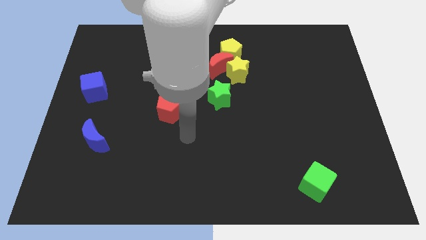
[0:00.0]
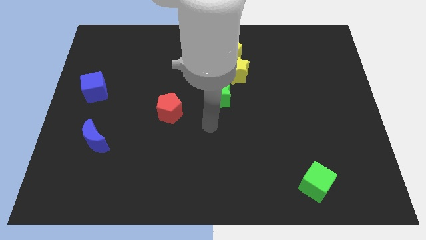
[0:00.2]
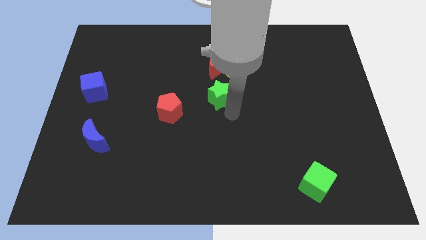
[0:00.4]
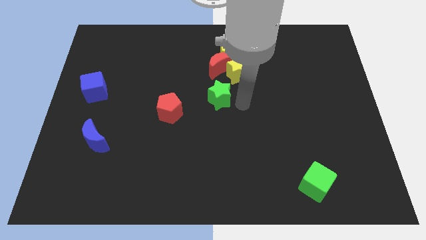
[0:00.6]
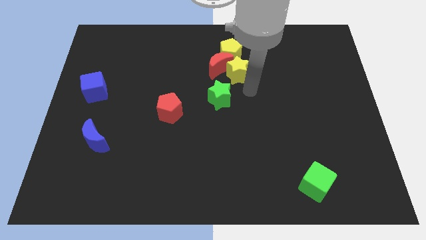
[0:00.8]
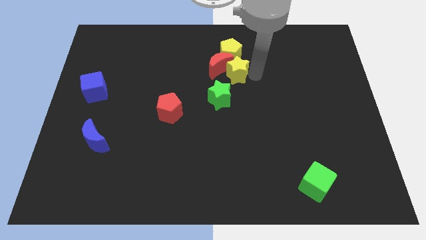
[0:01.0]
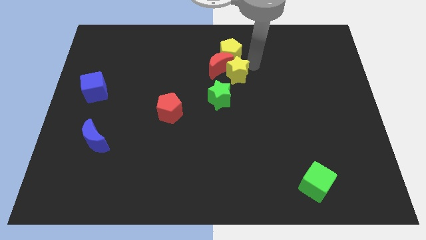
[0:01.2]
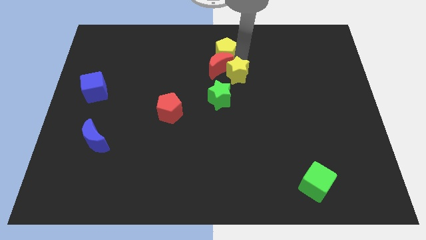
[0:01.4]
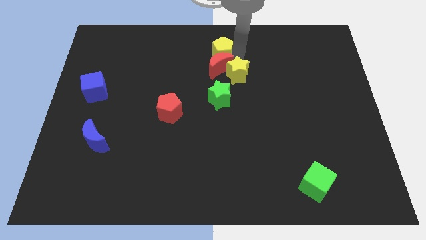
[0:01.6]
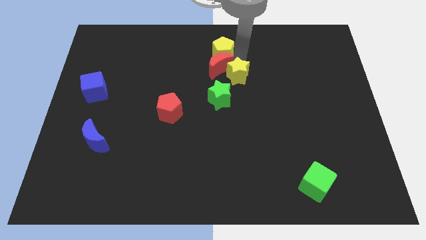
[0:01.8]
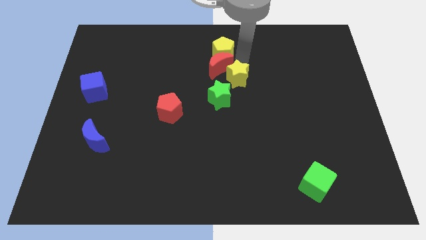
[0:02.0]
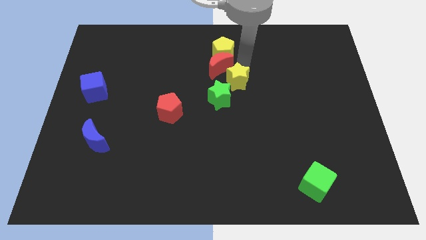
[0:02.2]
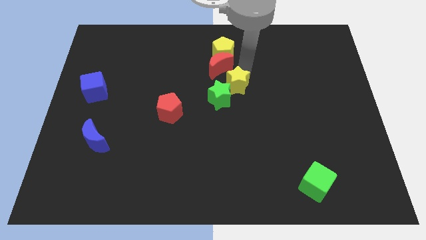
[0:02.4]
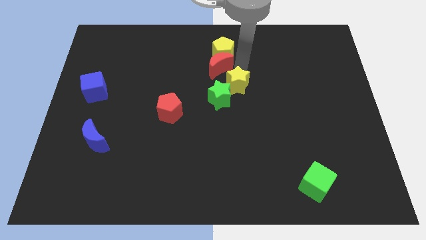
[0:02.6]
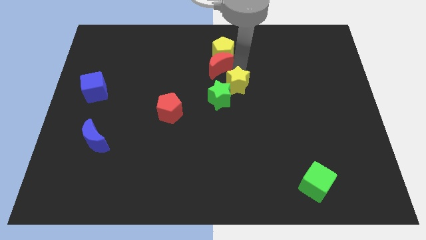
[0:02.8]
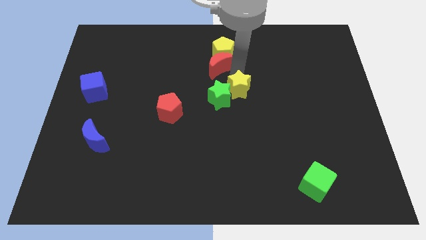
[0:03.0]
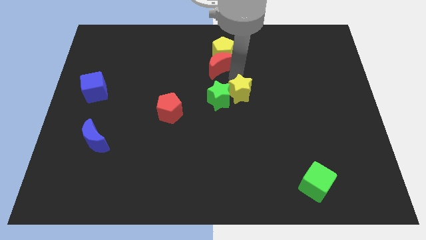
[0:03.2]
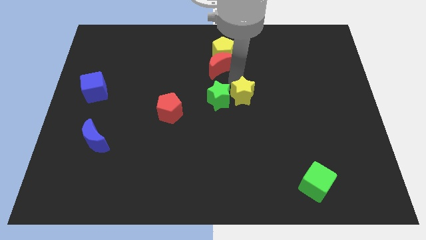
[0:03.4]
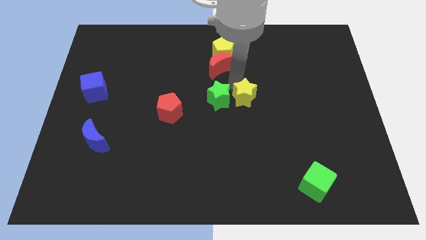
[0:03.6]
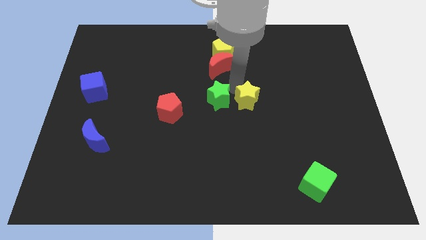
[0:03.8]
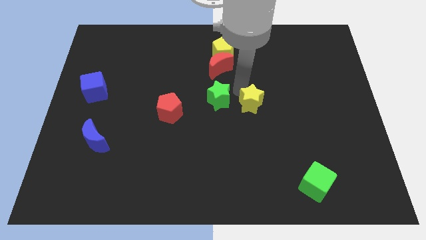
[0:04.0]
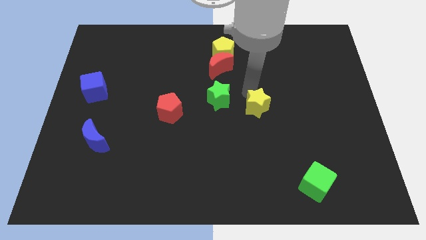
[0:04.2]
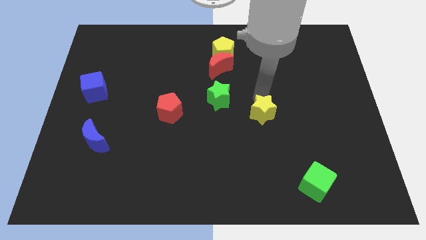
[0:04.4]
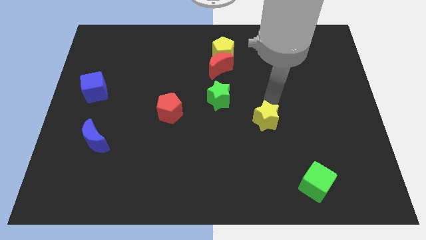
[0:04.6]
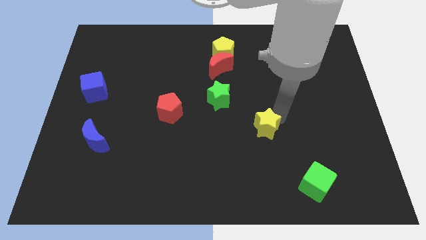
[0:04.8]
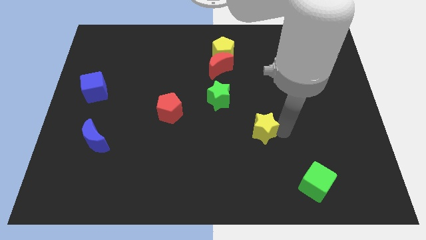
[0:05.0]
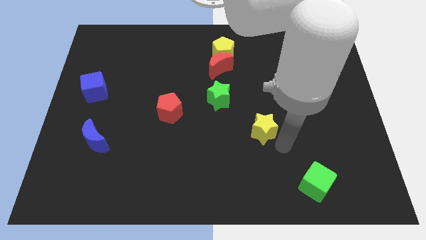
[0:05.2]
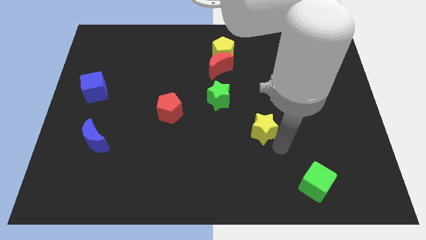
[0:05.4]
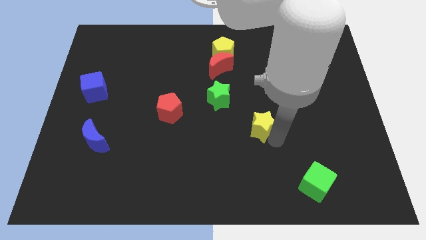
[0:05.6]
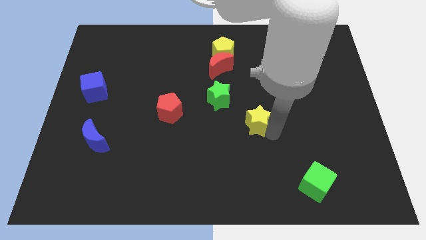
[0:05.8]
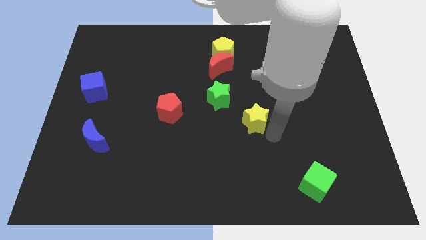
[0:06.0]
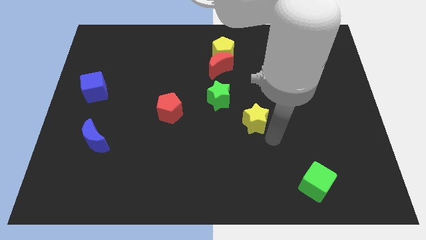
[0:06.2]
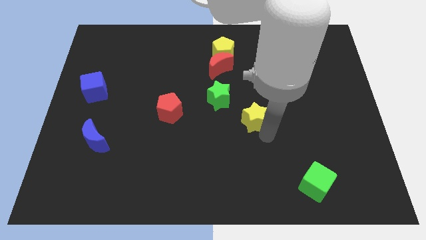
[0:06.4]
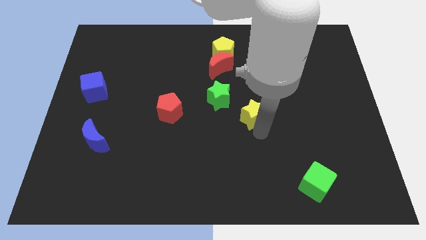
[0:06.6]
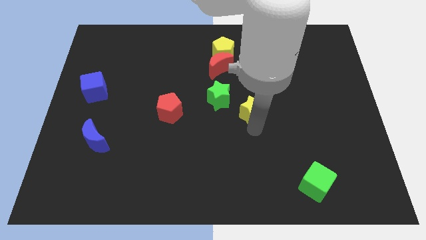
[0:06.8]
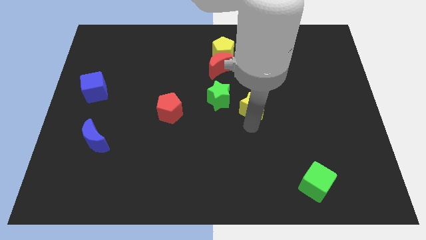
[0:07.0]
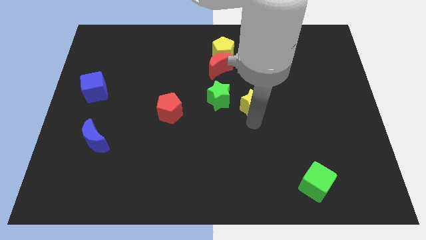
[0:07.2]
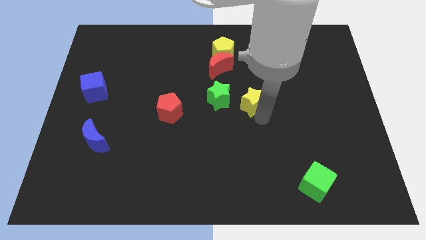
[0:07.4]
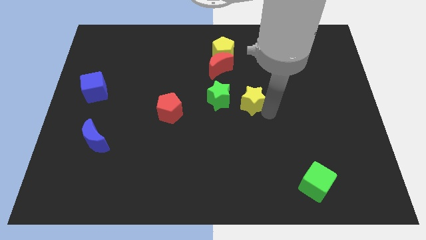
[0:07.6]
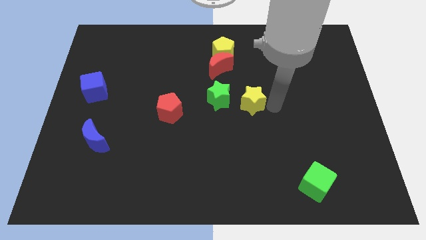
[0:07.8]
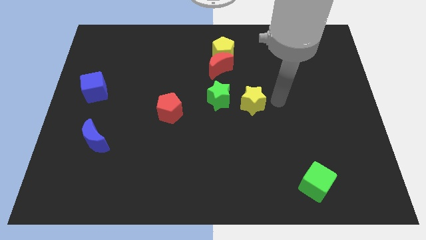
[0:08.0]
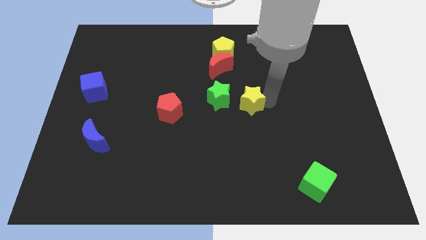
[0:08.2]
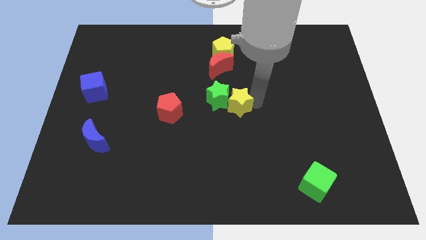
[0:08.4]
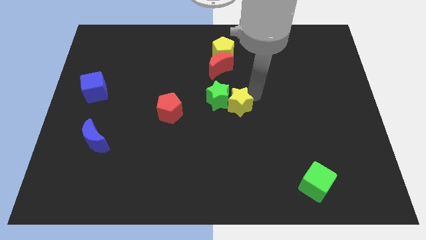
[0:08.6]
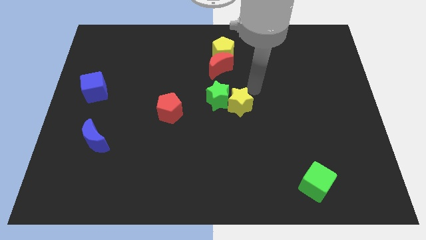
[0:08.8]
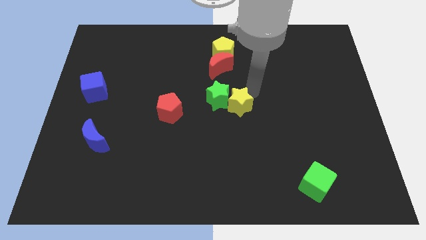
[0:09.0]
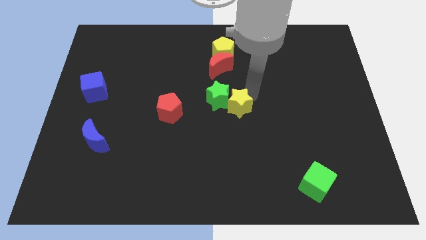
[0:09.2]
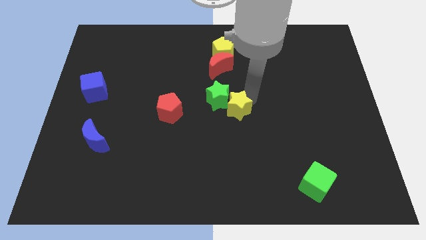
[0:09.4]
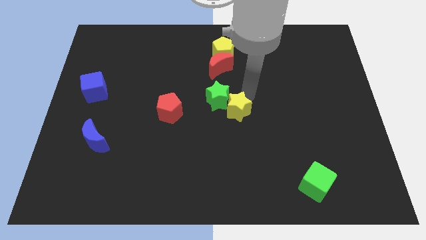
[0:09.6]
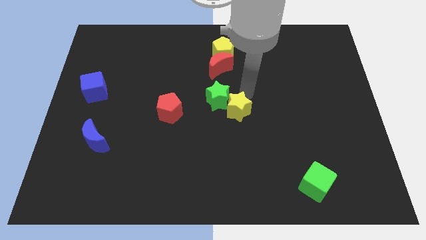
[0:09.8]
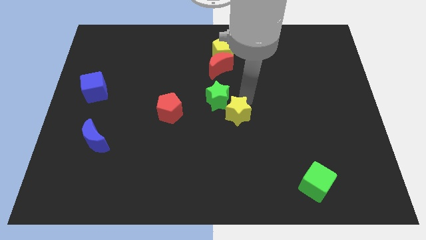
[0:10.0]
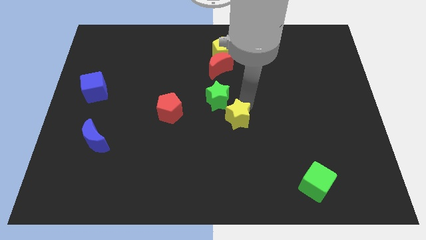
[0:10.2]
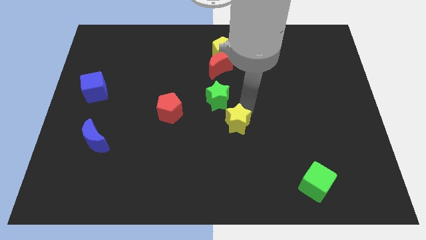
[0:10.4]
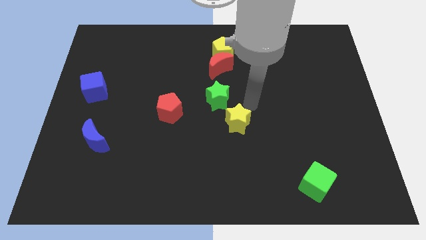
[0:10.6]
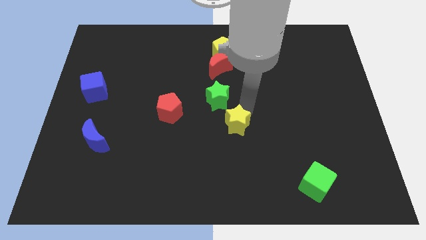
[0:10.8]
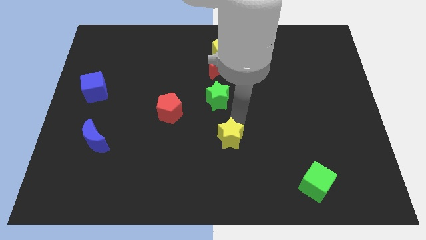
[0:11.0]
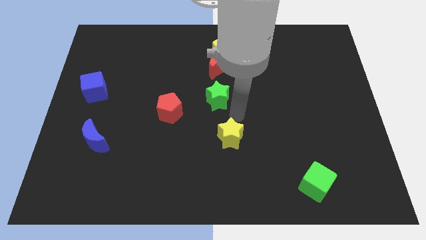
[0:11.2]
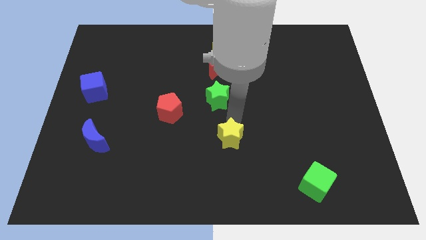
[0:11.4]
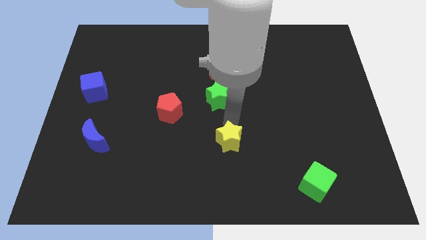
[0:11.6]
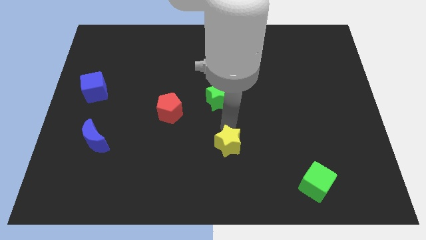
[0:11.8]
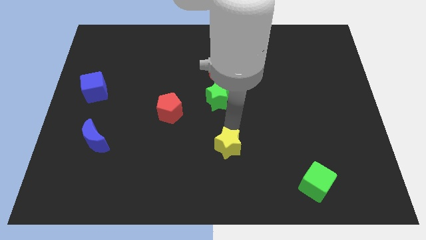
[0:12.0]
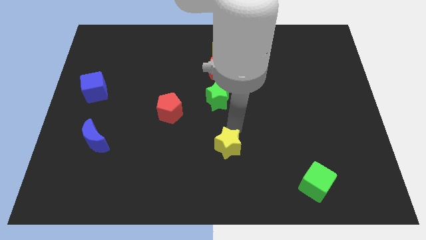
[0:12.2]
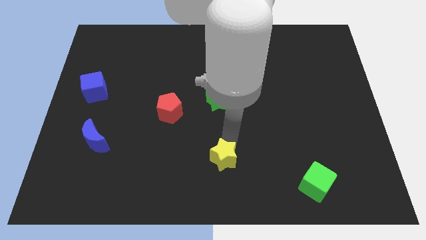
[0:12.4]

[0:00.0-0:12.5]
slide the yellow star to the bottom

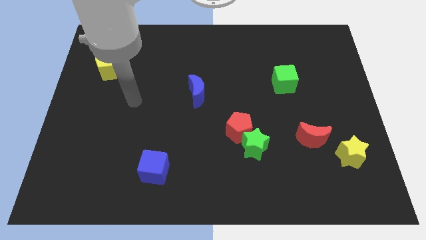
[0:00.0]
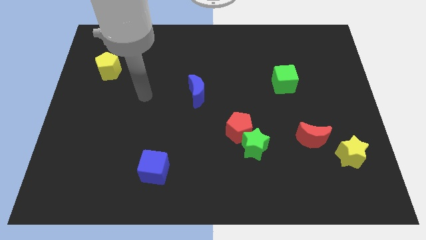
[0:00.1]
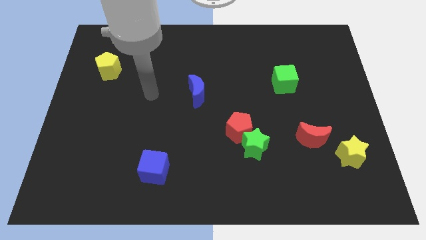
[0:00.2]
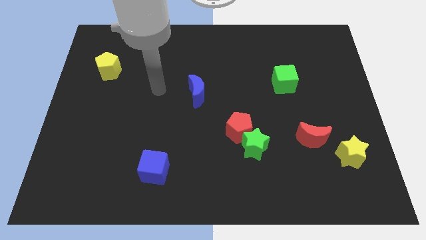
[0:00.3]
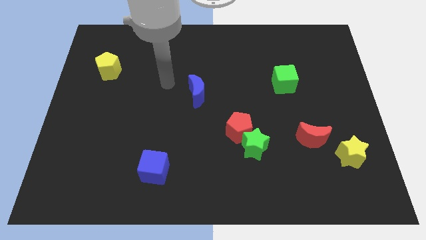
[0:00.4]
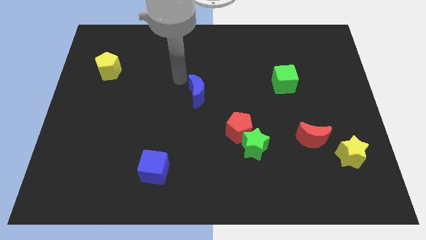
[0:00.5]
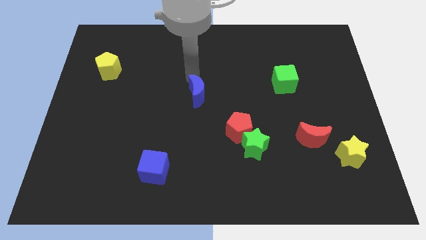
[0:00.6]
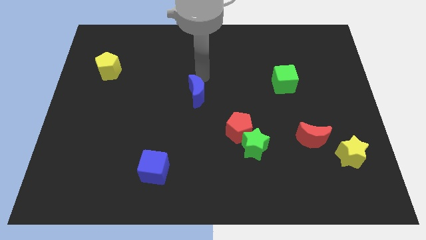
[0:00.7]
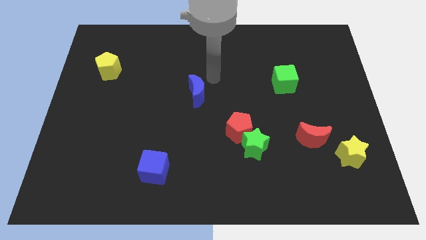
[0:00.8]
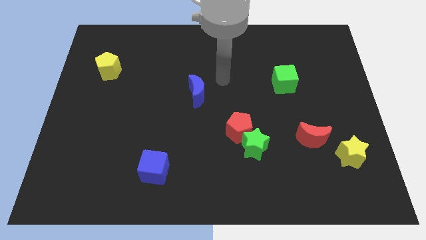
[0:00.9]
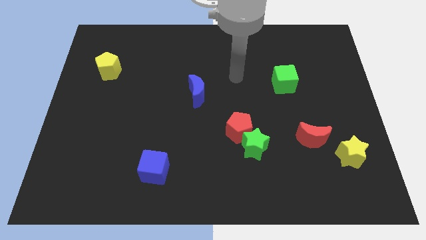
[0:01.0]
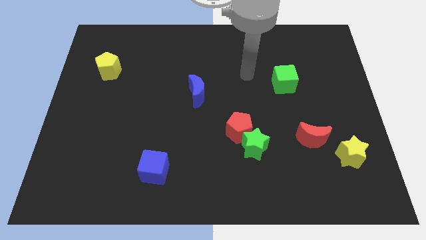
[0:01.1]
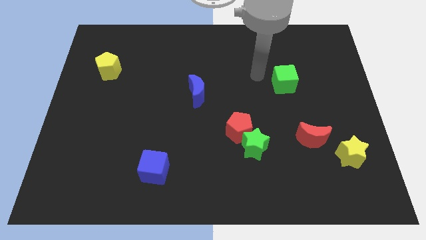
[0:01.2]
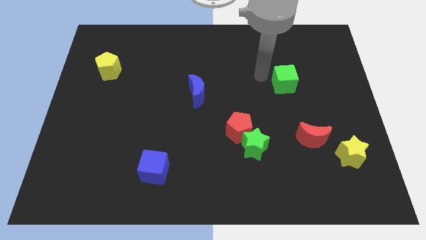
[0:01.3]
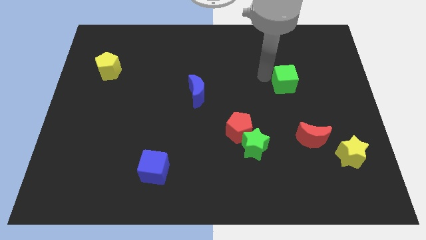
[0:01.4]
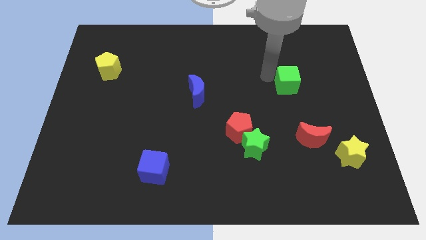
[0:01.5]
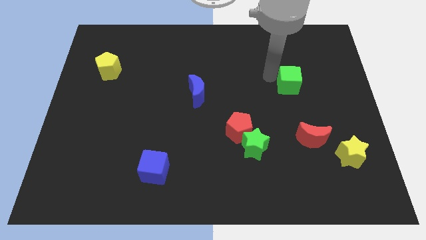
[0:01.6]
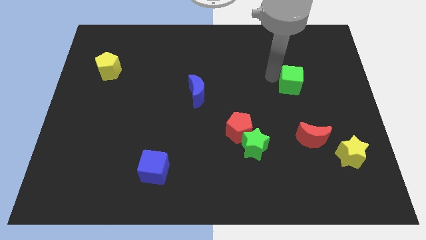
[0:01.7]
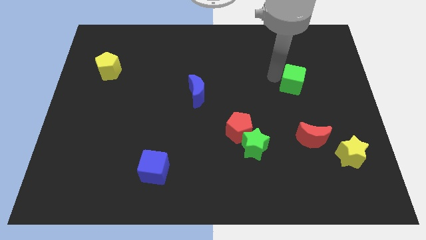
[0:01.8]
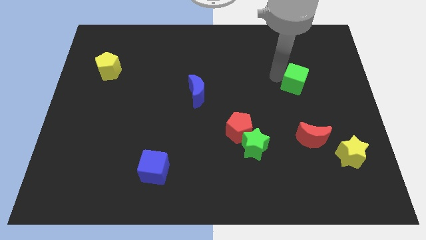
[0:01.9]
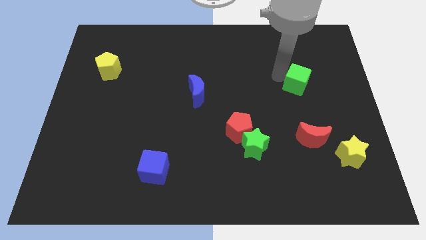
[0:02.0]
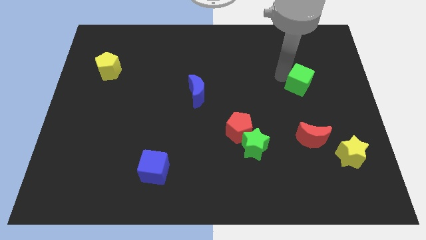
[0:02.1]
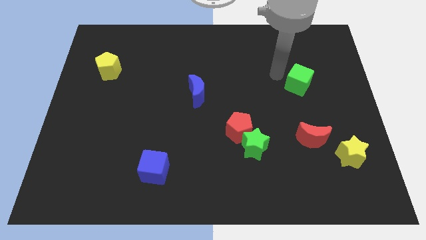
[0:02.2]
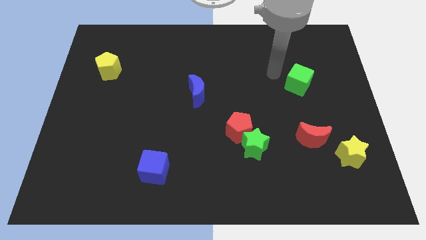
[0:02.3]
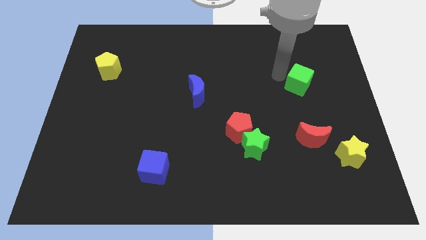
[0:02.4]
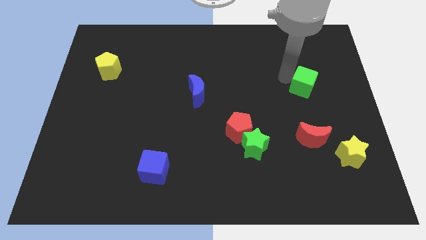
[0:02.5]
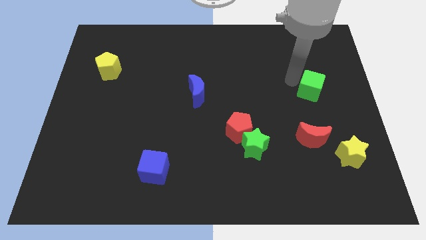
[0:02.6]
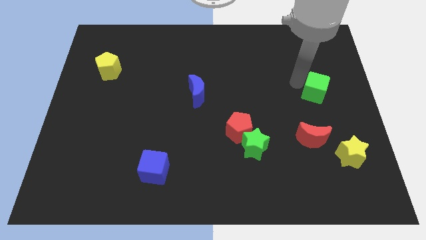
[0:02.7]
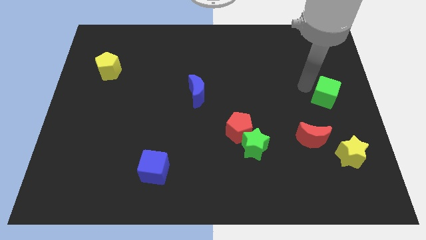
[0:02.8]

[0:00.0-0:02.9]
push the green cube to the center right
